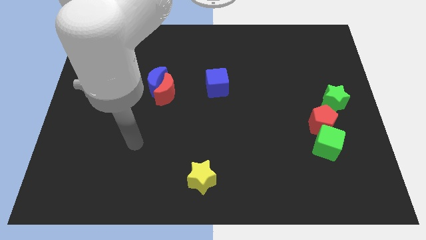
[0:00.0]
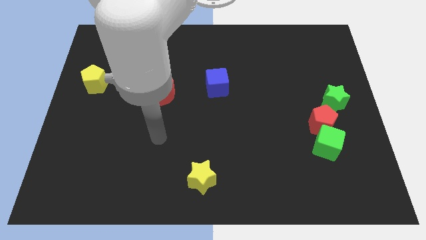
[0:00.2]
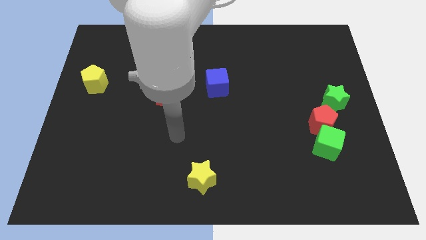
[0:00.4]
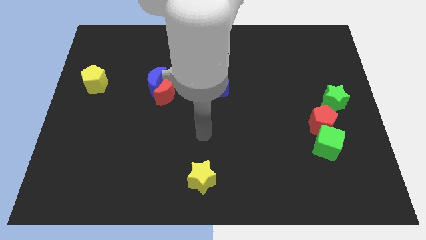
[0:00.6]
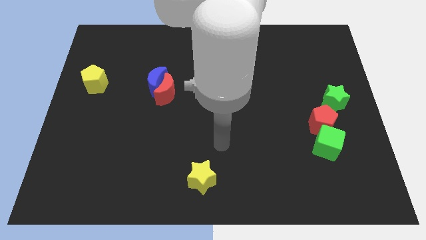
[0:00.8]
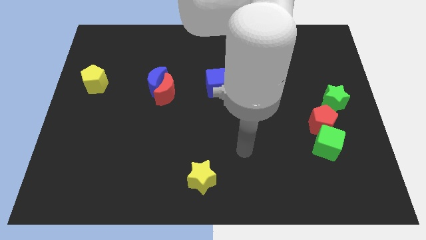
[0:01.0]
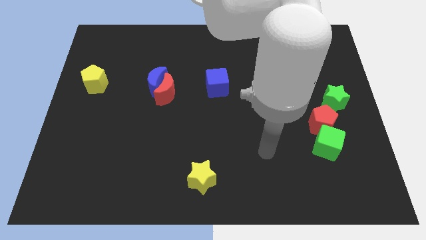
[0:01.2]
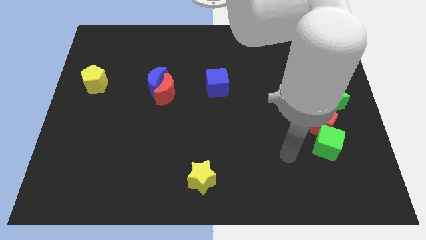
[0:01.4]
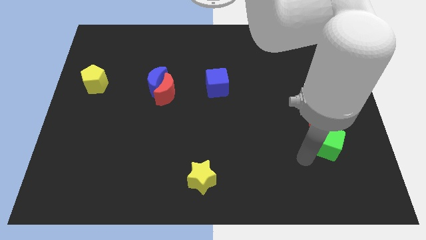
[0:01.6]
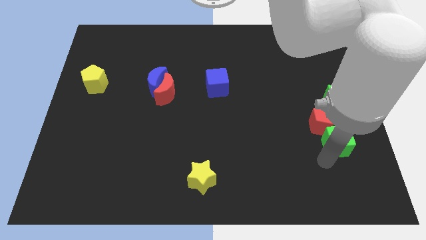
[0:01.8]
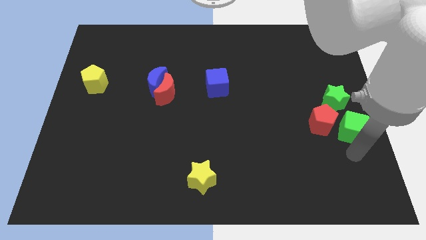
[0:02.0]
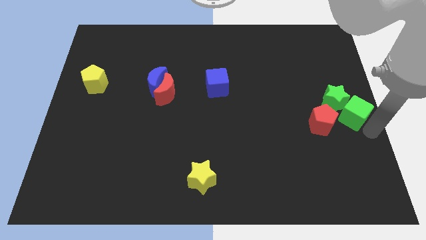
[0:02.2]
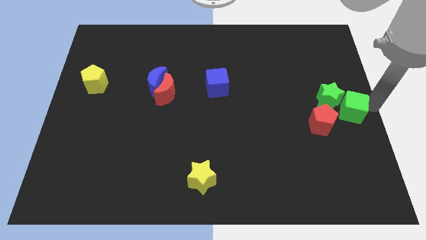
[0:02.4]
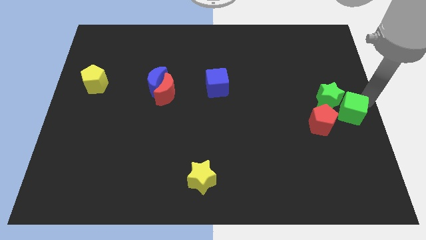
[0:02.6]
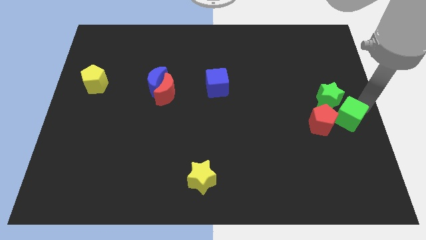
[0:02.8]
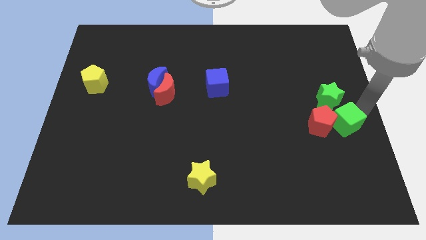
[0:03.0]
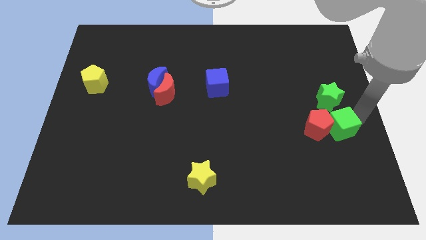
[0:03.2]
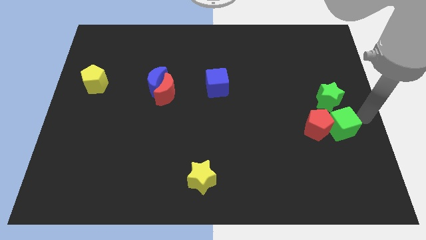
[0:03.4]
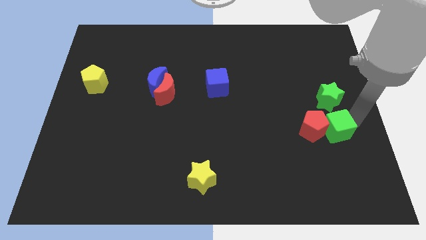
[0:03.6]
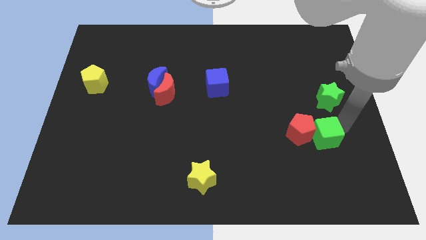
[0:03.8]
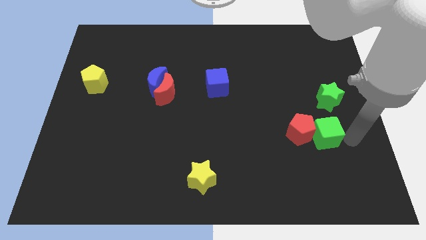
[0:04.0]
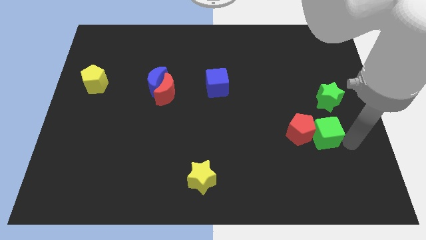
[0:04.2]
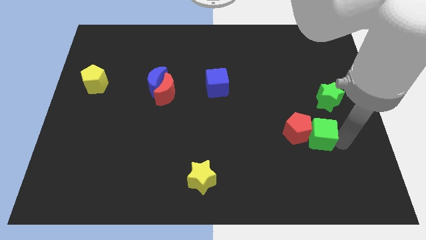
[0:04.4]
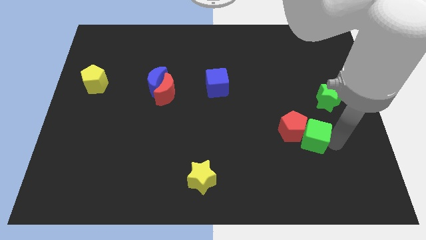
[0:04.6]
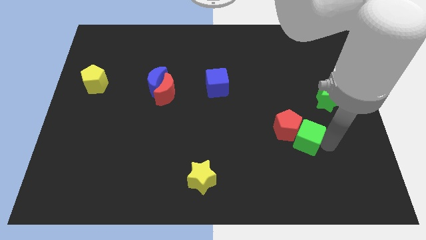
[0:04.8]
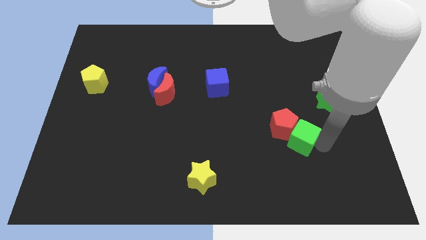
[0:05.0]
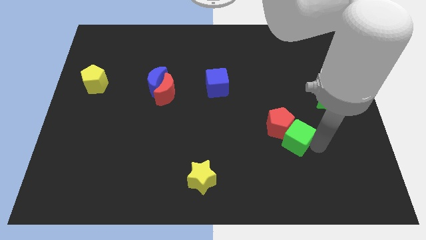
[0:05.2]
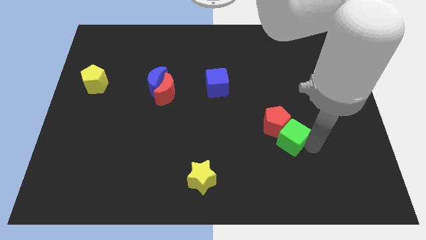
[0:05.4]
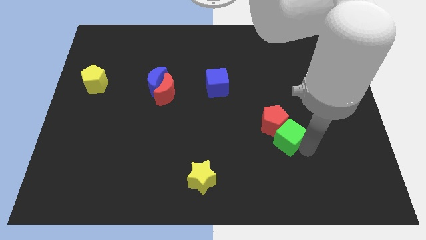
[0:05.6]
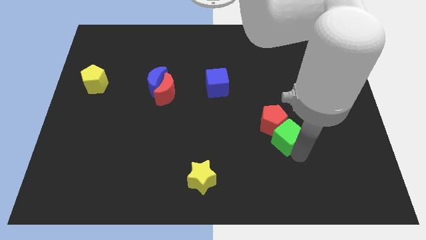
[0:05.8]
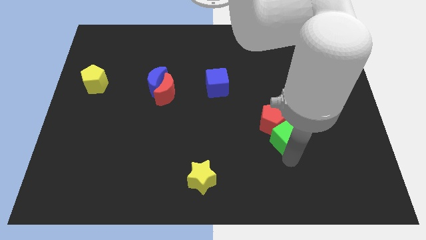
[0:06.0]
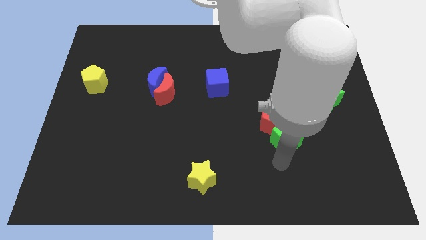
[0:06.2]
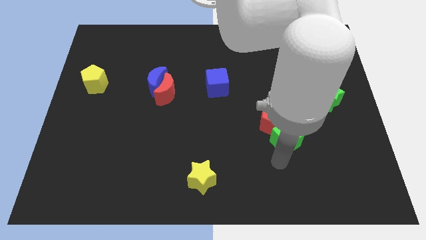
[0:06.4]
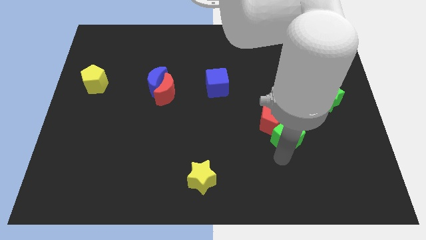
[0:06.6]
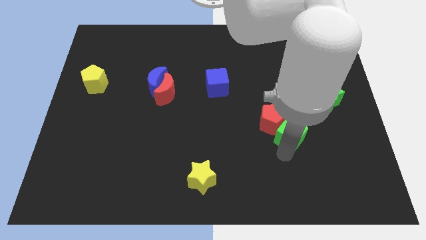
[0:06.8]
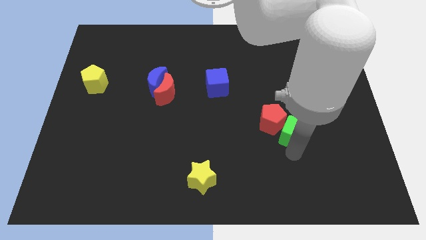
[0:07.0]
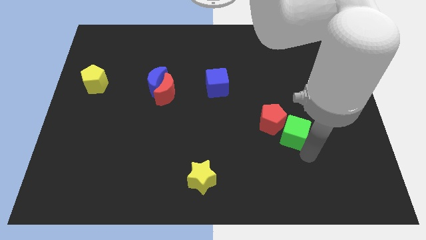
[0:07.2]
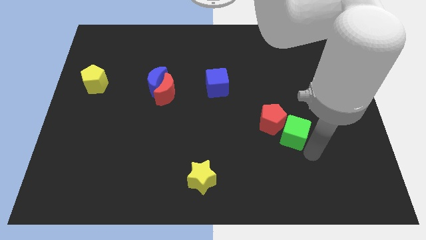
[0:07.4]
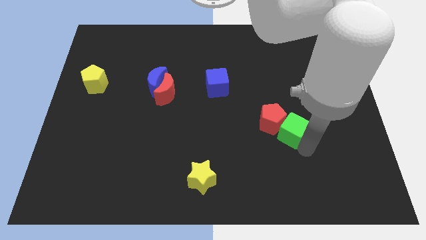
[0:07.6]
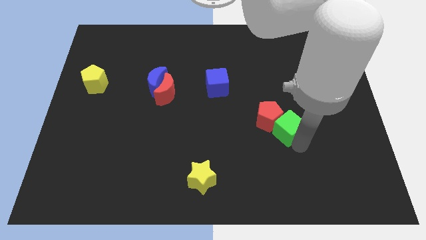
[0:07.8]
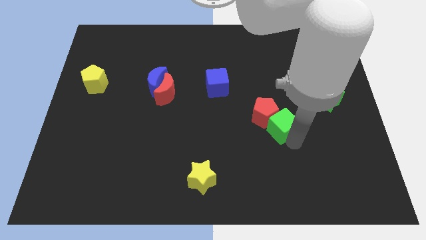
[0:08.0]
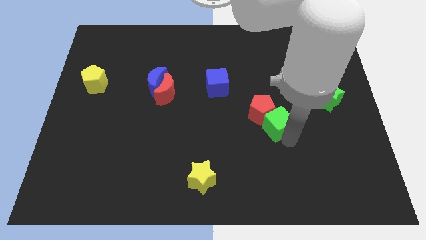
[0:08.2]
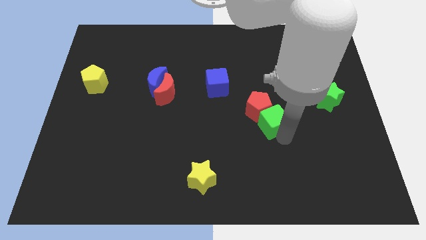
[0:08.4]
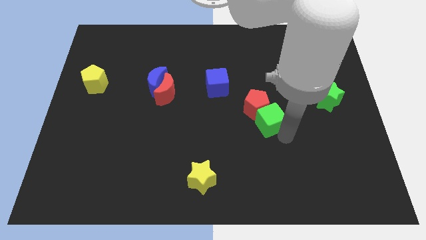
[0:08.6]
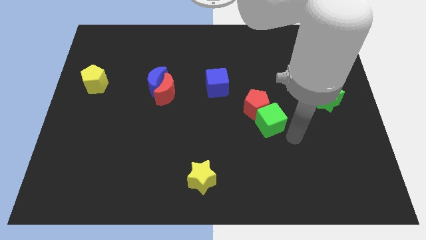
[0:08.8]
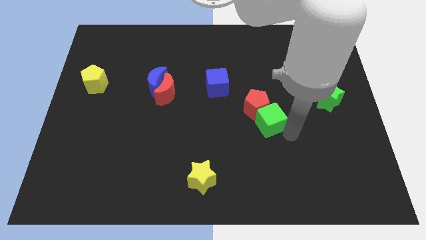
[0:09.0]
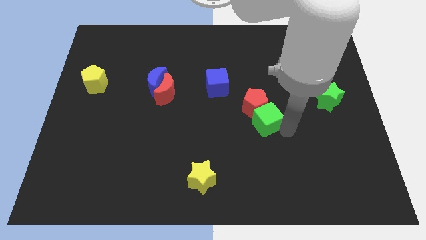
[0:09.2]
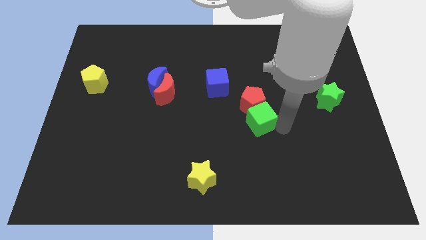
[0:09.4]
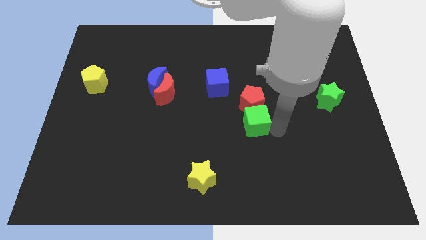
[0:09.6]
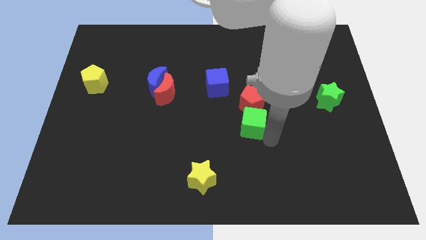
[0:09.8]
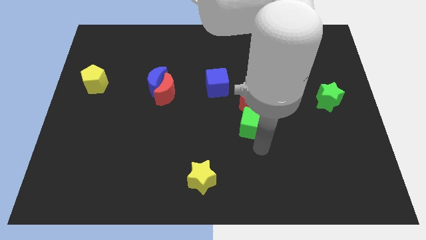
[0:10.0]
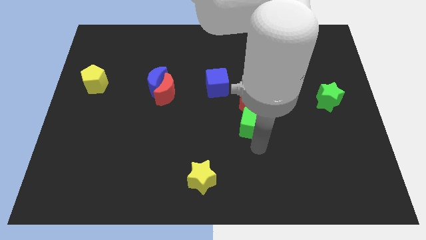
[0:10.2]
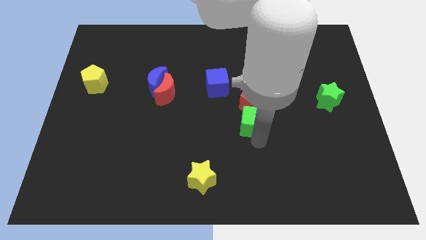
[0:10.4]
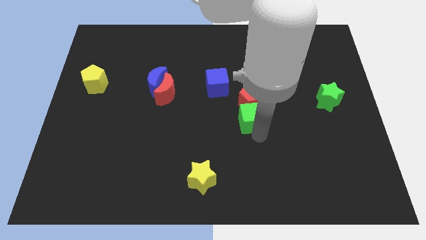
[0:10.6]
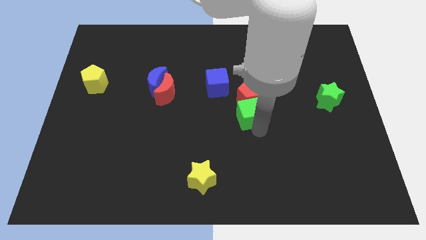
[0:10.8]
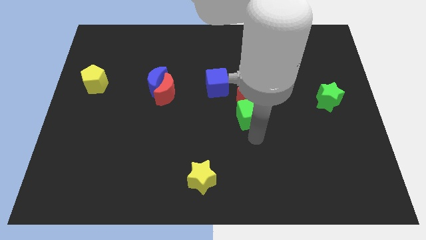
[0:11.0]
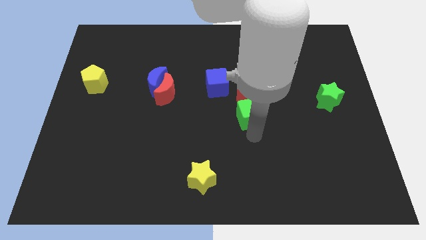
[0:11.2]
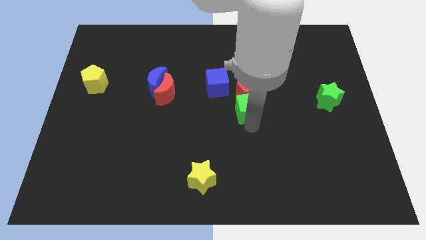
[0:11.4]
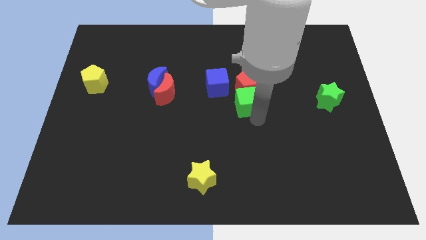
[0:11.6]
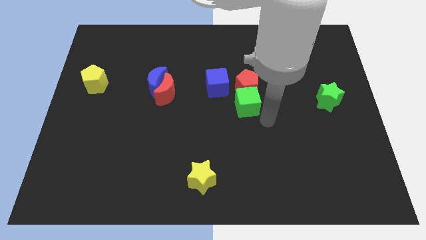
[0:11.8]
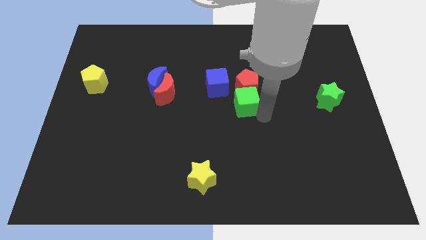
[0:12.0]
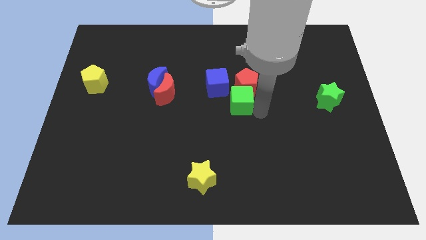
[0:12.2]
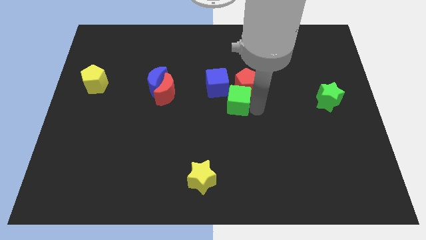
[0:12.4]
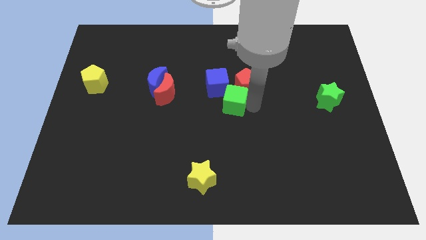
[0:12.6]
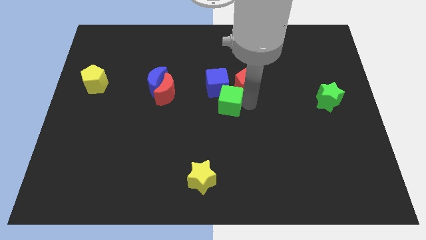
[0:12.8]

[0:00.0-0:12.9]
move the green cube to the blue cube
